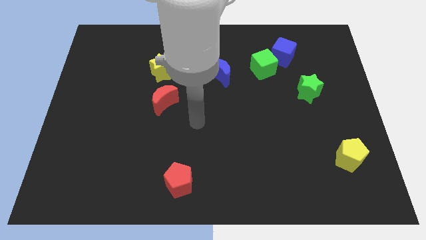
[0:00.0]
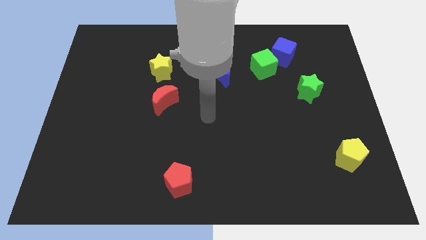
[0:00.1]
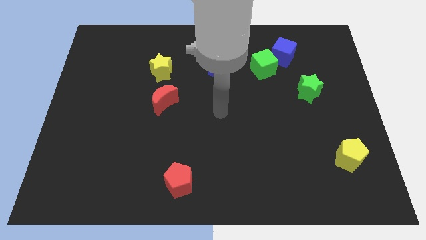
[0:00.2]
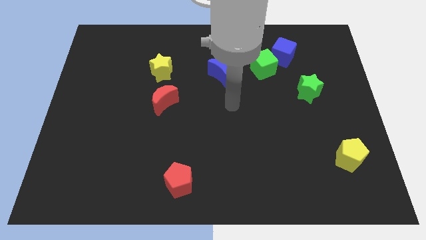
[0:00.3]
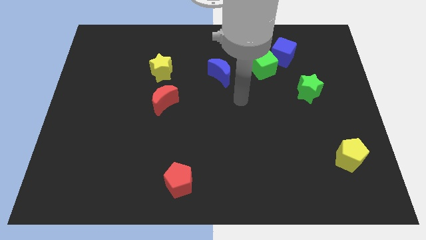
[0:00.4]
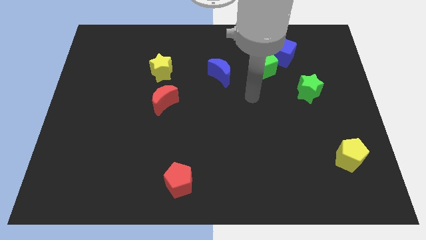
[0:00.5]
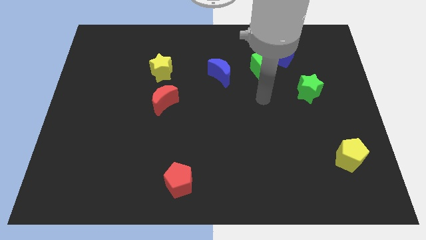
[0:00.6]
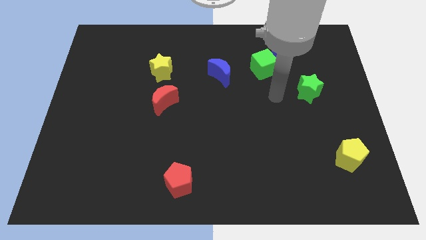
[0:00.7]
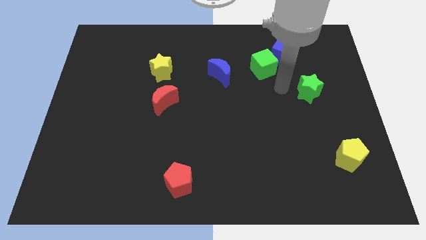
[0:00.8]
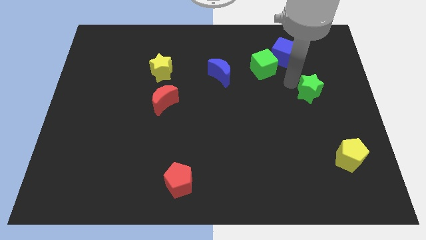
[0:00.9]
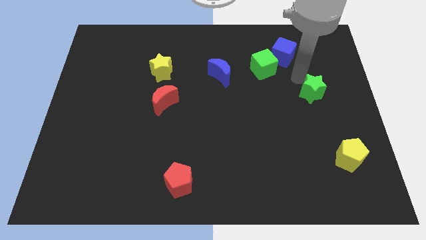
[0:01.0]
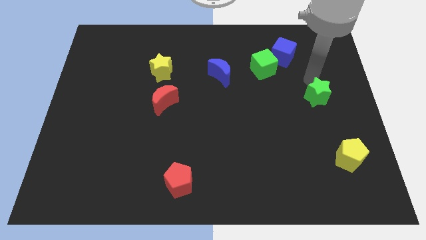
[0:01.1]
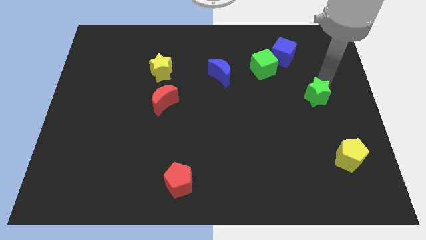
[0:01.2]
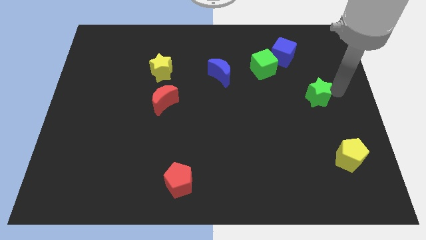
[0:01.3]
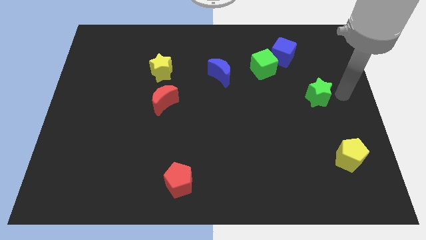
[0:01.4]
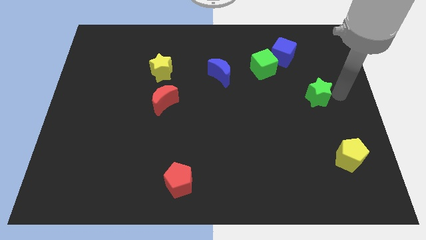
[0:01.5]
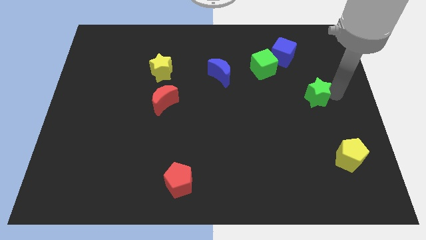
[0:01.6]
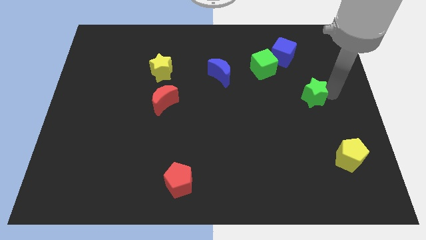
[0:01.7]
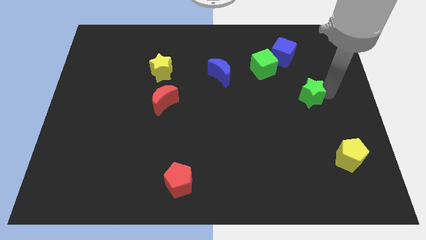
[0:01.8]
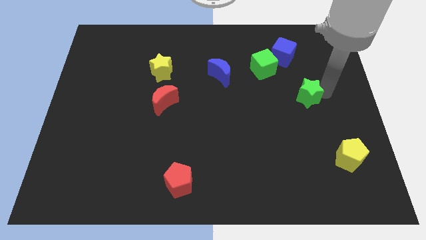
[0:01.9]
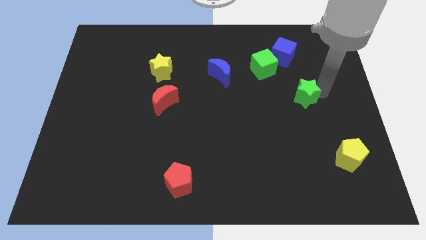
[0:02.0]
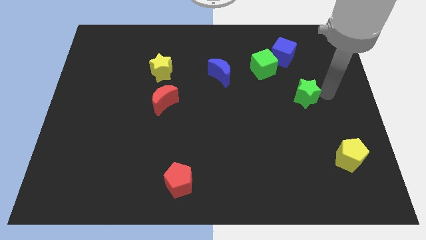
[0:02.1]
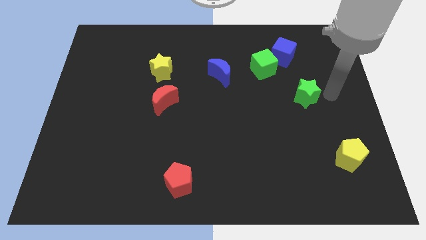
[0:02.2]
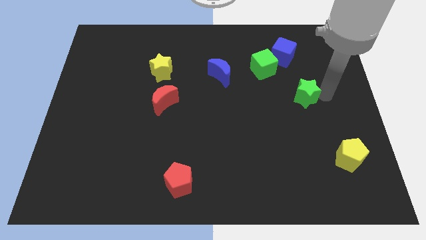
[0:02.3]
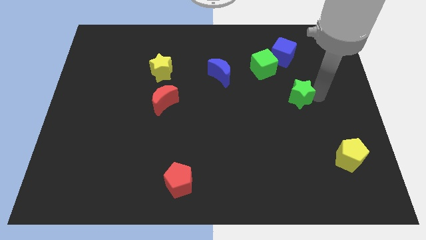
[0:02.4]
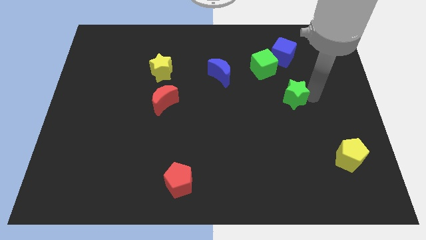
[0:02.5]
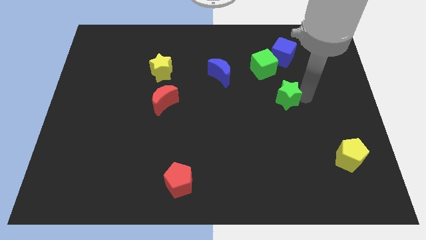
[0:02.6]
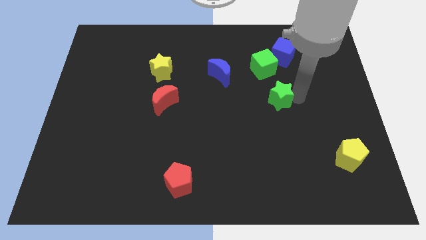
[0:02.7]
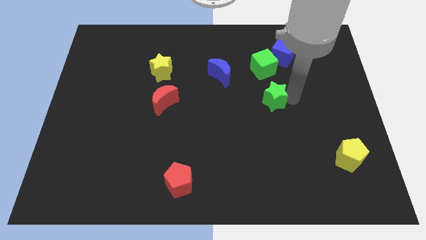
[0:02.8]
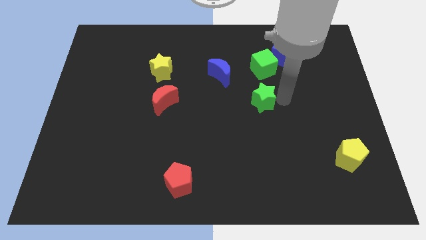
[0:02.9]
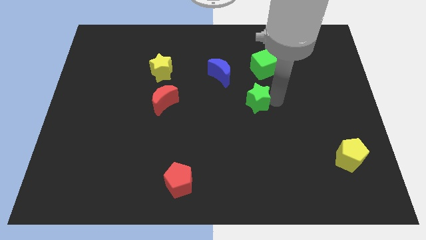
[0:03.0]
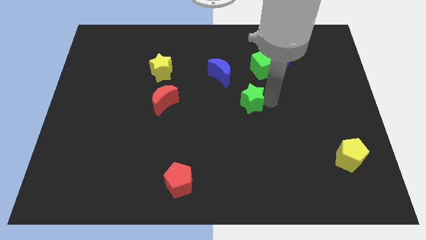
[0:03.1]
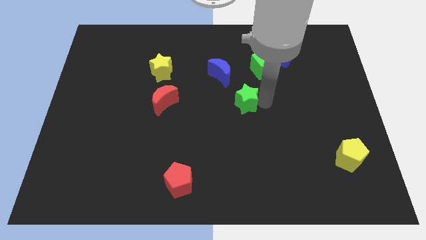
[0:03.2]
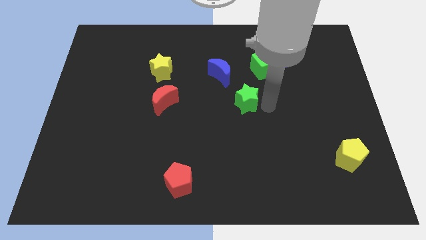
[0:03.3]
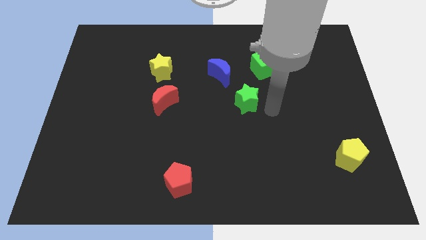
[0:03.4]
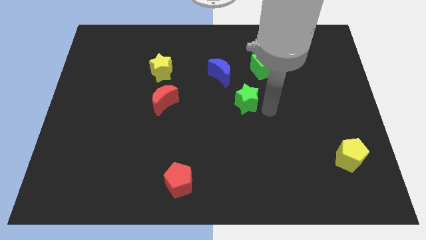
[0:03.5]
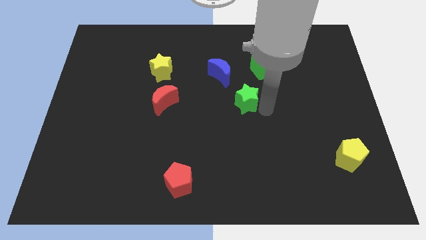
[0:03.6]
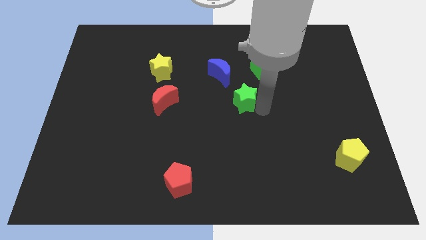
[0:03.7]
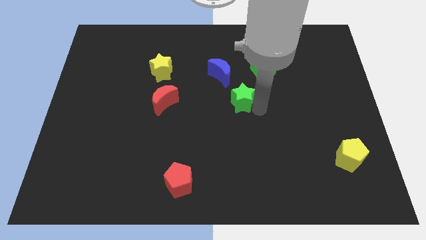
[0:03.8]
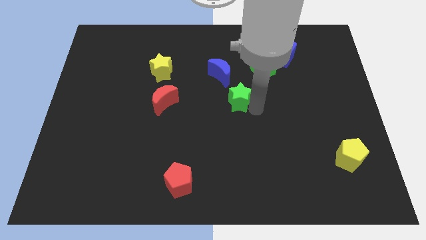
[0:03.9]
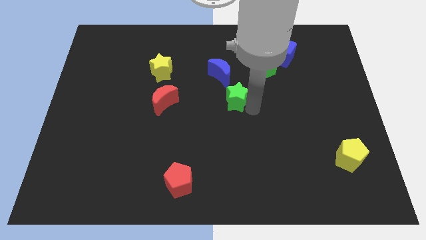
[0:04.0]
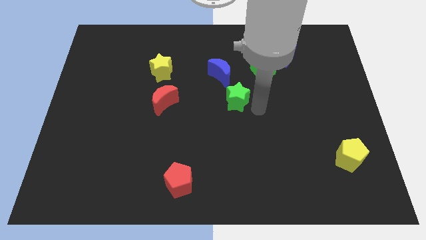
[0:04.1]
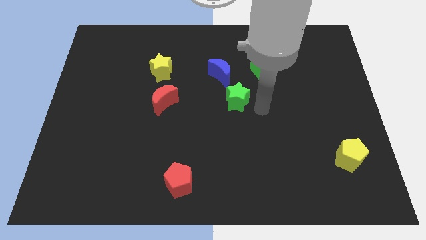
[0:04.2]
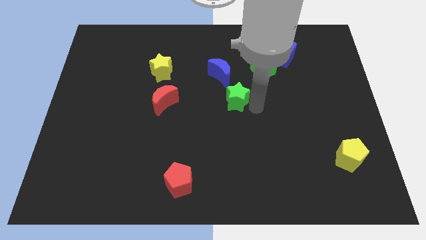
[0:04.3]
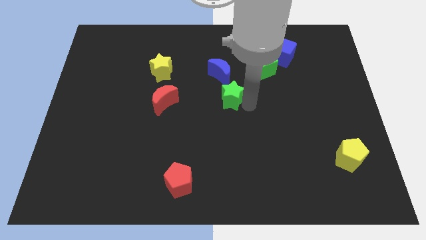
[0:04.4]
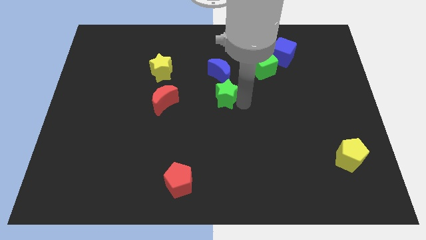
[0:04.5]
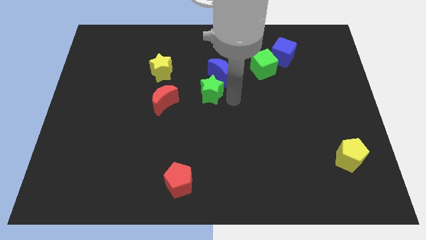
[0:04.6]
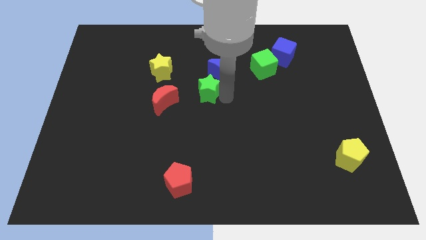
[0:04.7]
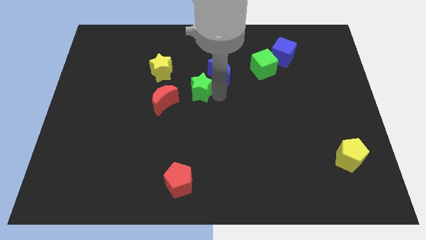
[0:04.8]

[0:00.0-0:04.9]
move the green star to the bottom right of the yellow star

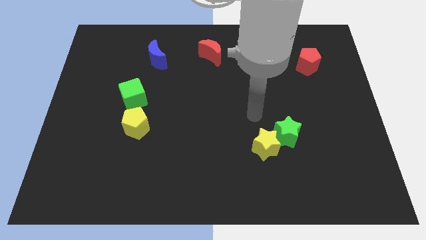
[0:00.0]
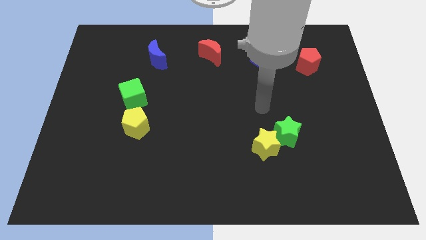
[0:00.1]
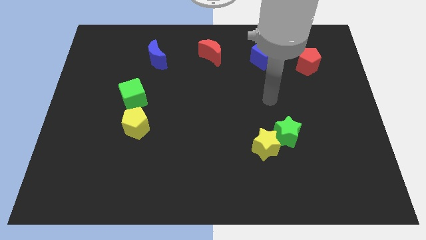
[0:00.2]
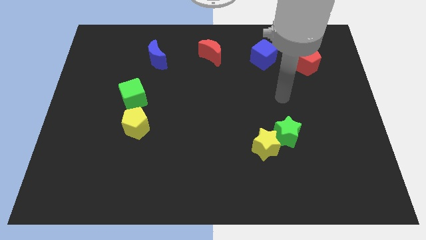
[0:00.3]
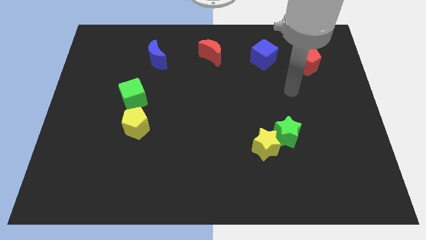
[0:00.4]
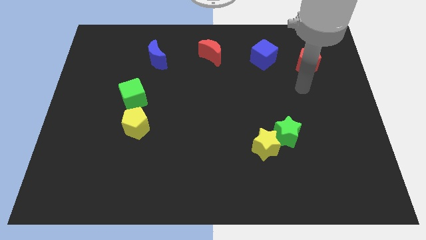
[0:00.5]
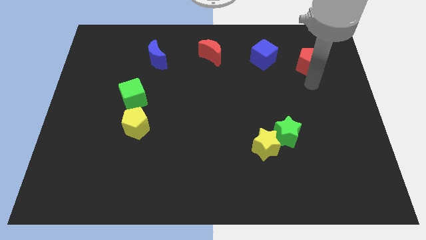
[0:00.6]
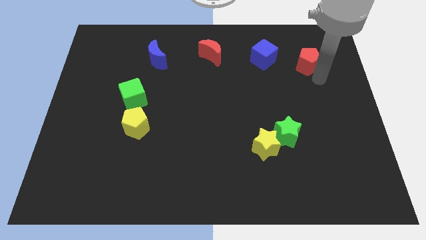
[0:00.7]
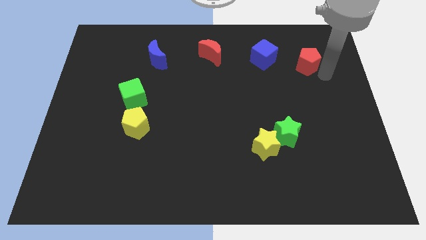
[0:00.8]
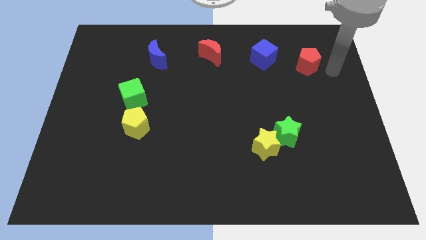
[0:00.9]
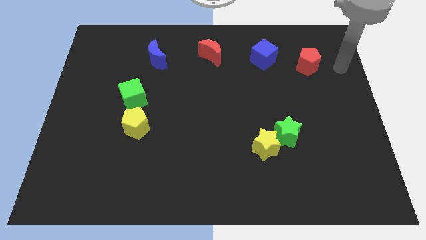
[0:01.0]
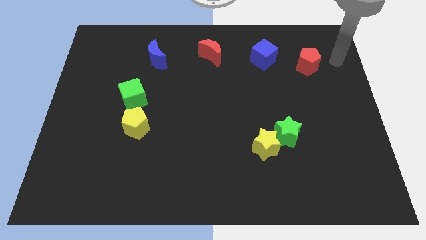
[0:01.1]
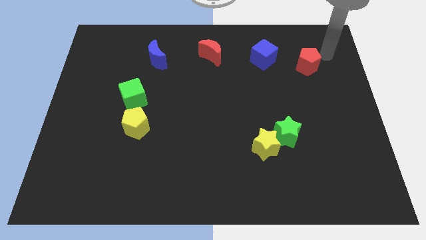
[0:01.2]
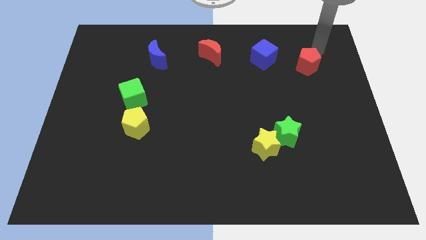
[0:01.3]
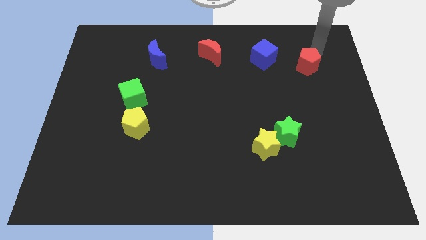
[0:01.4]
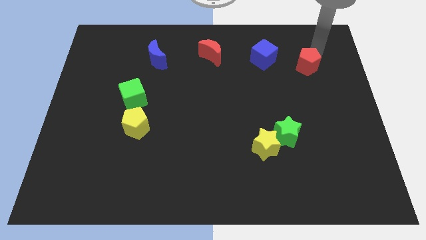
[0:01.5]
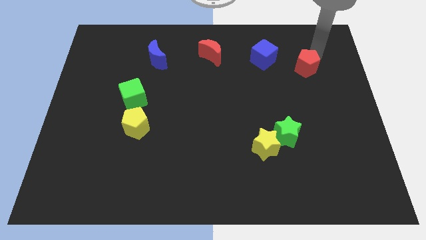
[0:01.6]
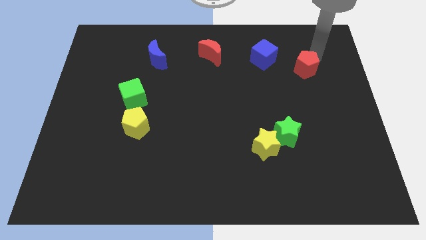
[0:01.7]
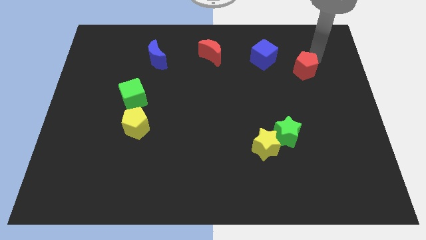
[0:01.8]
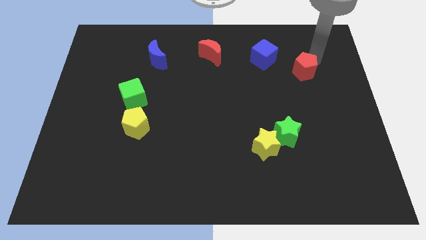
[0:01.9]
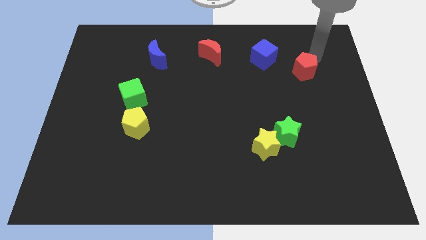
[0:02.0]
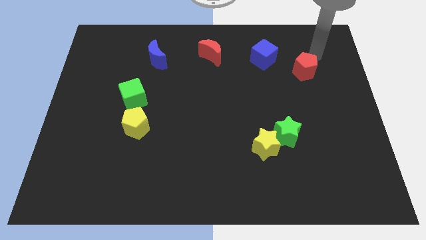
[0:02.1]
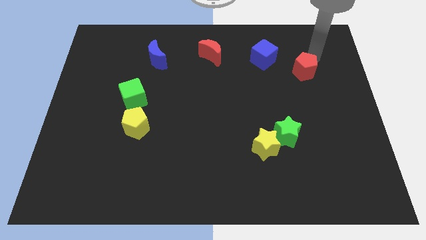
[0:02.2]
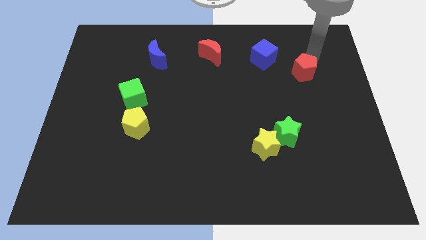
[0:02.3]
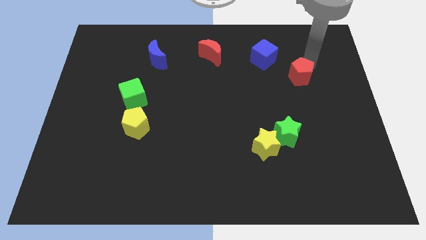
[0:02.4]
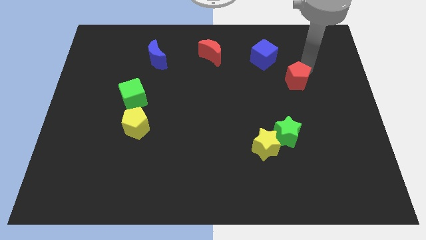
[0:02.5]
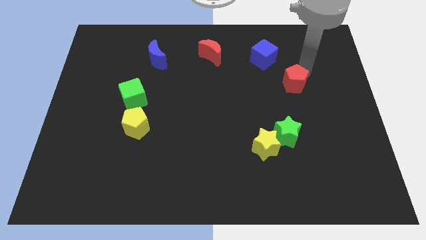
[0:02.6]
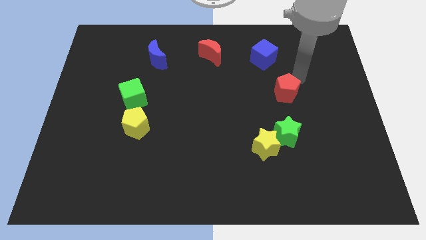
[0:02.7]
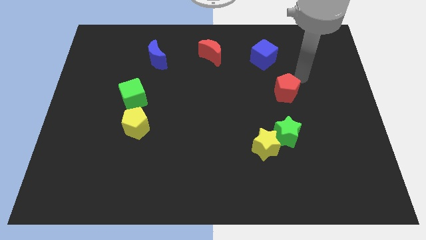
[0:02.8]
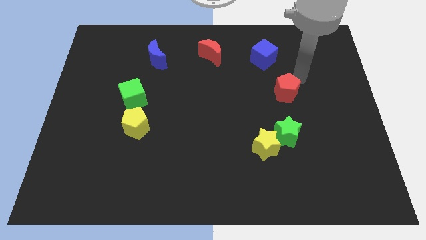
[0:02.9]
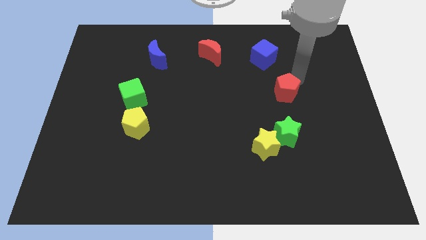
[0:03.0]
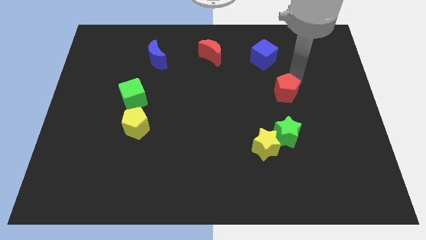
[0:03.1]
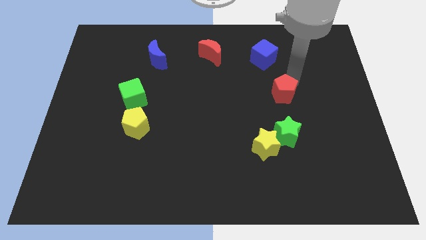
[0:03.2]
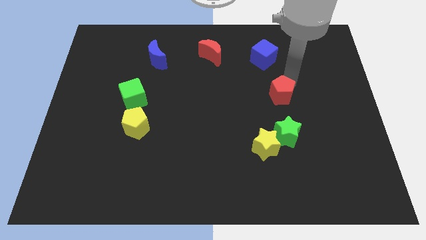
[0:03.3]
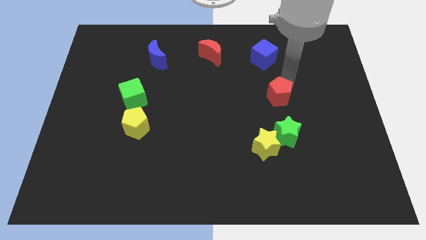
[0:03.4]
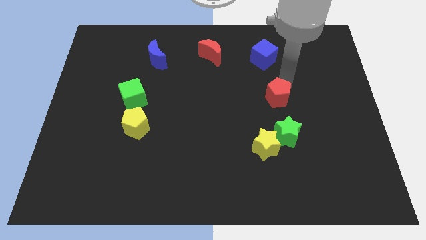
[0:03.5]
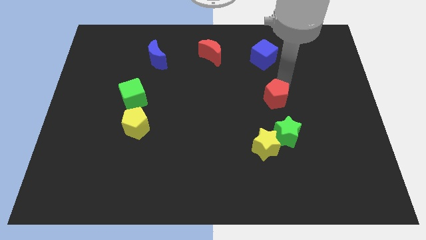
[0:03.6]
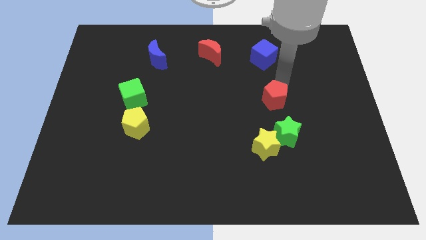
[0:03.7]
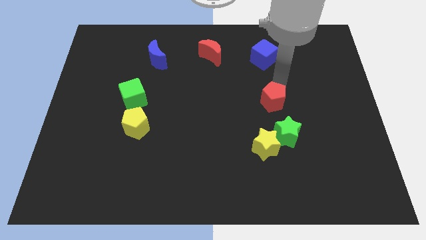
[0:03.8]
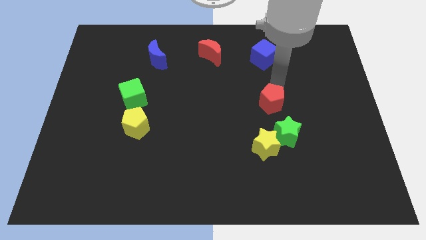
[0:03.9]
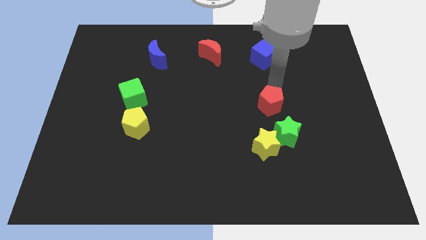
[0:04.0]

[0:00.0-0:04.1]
move the red pentagon diagonally up and to the left of the green star
